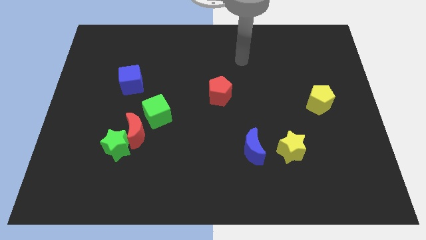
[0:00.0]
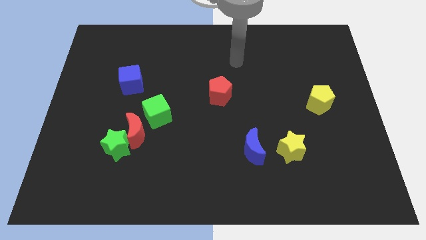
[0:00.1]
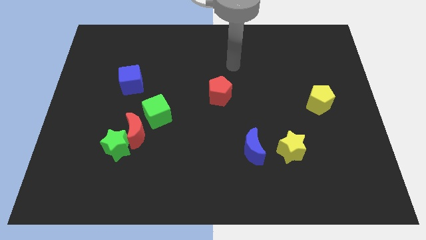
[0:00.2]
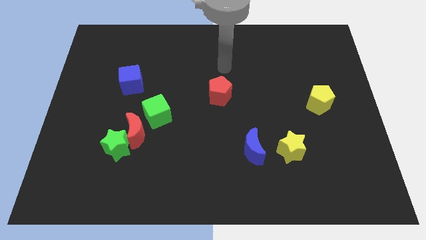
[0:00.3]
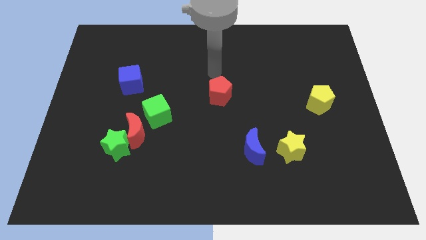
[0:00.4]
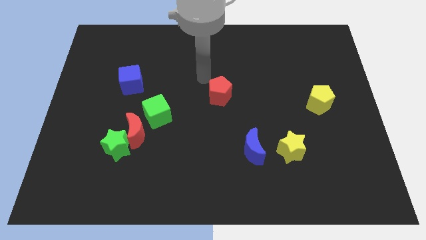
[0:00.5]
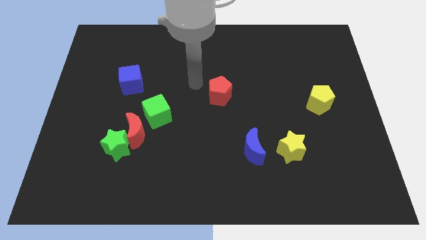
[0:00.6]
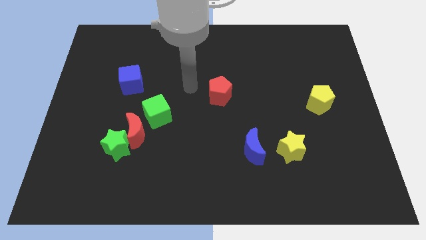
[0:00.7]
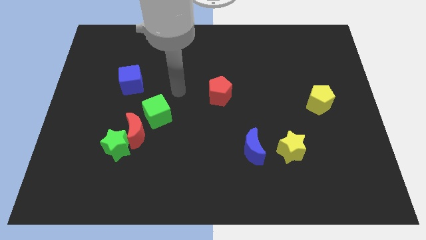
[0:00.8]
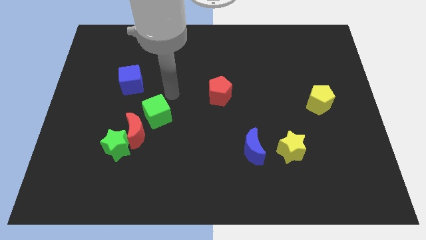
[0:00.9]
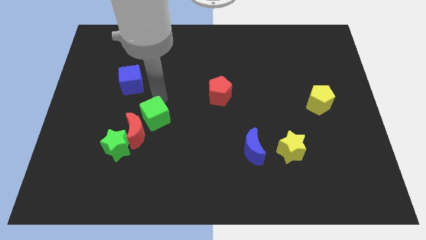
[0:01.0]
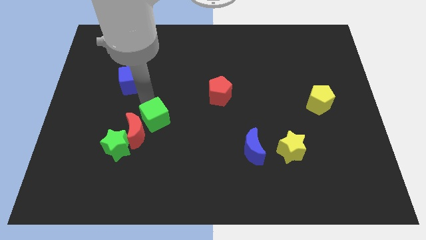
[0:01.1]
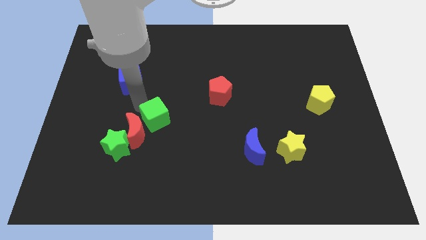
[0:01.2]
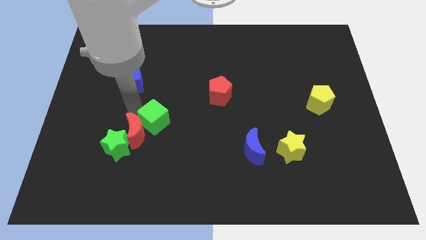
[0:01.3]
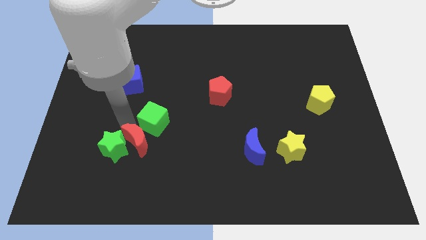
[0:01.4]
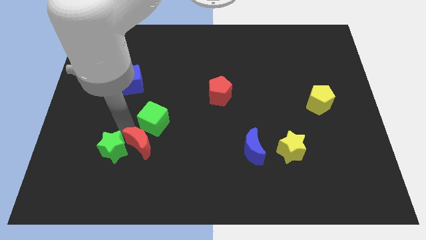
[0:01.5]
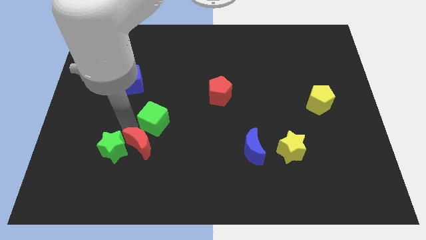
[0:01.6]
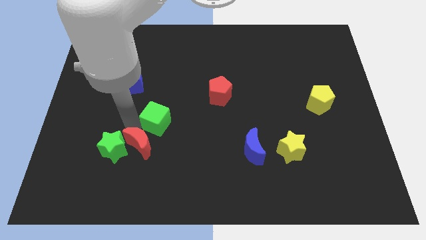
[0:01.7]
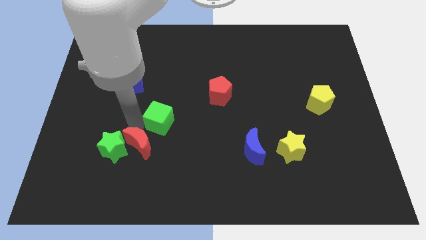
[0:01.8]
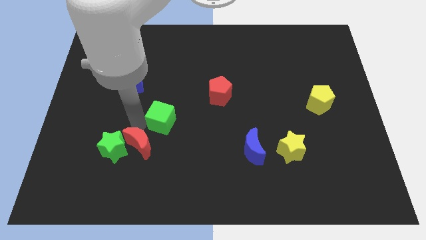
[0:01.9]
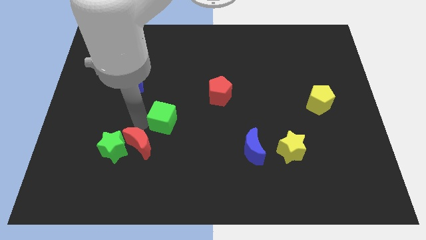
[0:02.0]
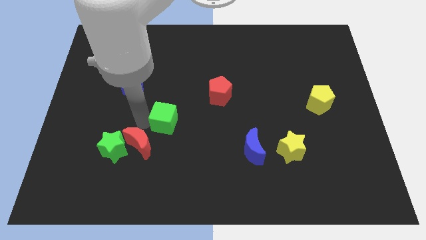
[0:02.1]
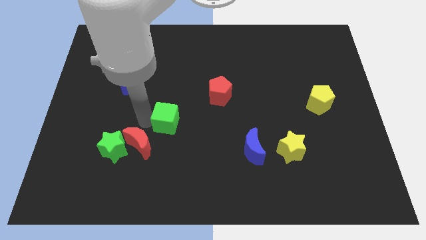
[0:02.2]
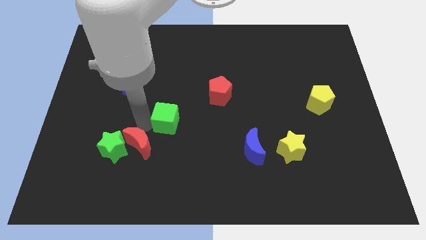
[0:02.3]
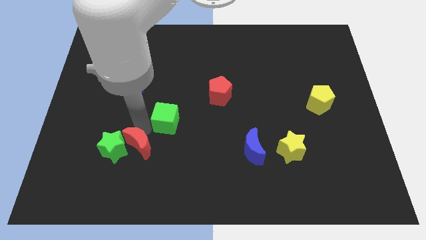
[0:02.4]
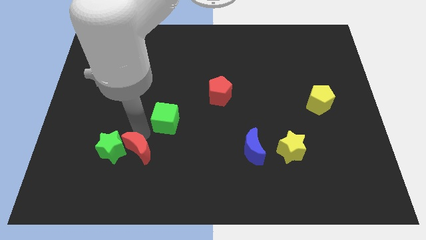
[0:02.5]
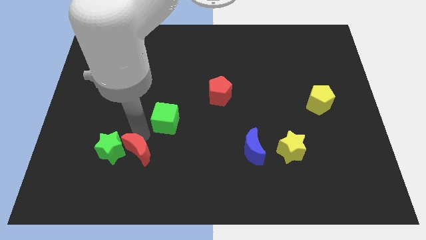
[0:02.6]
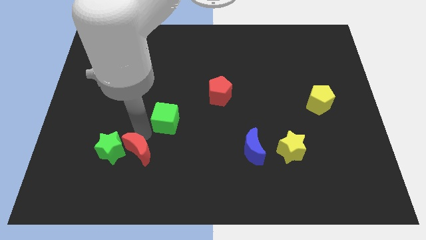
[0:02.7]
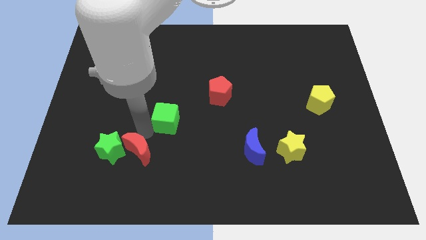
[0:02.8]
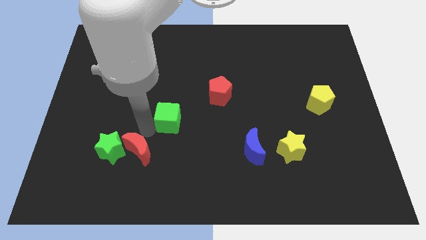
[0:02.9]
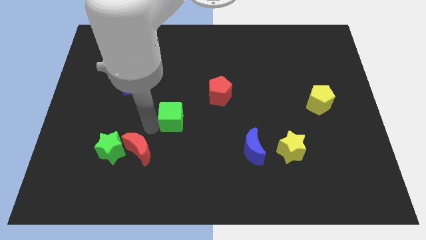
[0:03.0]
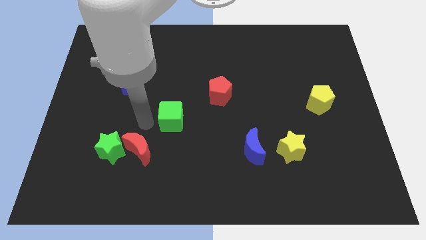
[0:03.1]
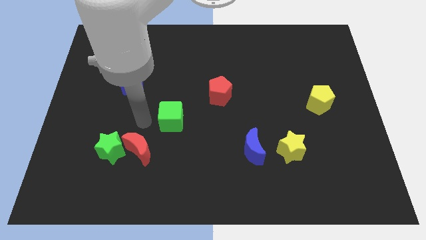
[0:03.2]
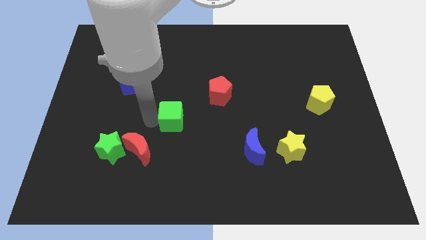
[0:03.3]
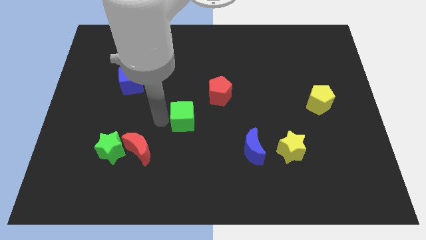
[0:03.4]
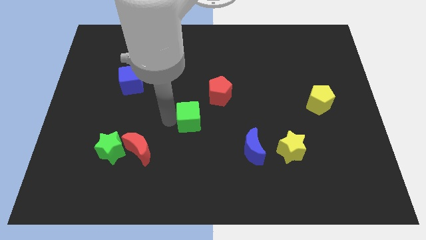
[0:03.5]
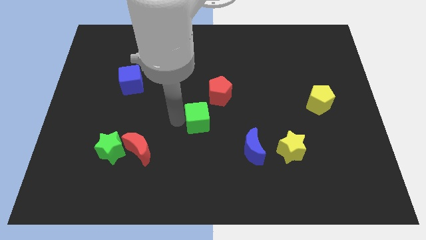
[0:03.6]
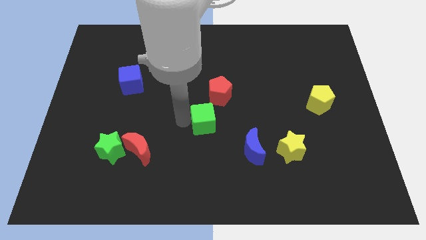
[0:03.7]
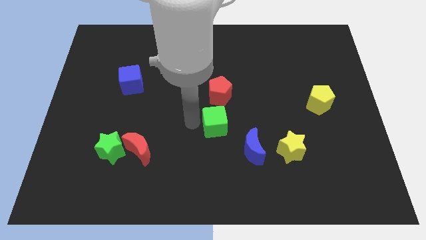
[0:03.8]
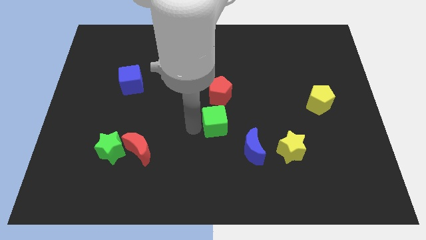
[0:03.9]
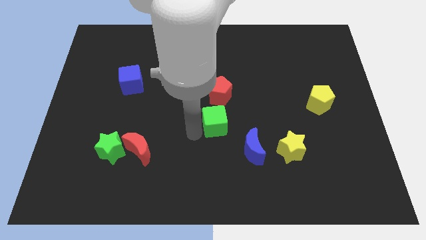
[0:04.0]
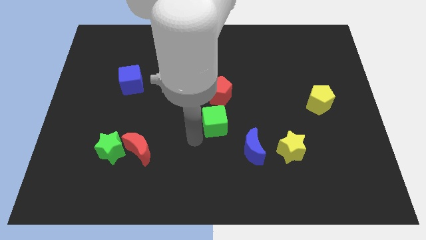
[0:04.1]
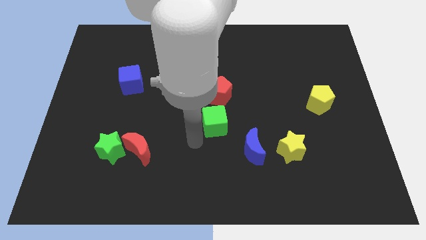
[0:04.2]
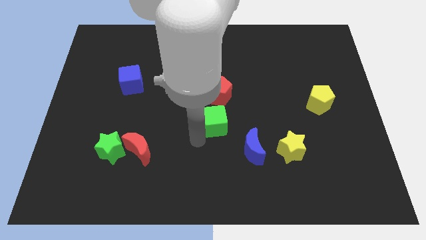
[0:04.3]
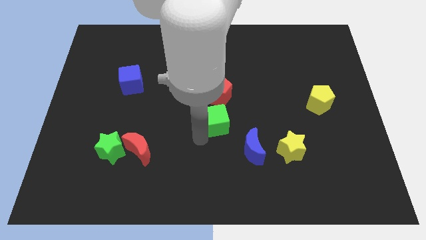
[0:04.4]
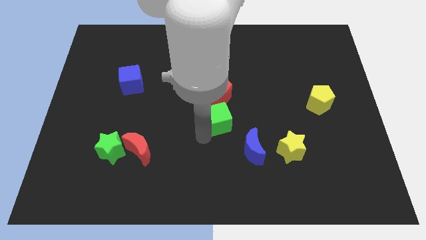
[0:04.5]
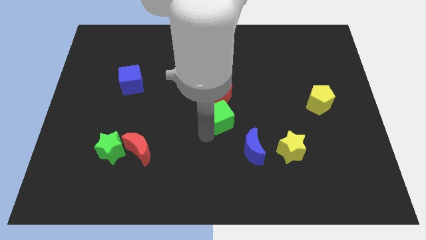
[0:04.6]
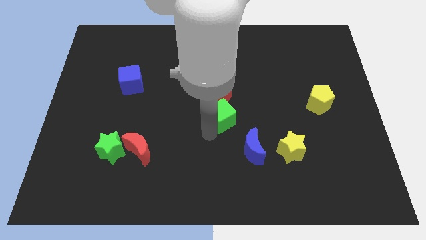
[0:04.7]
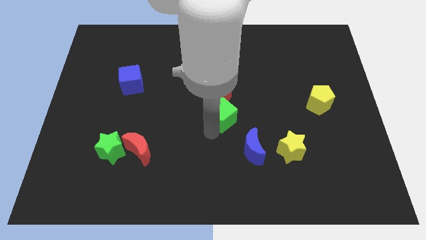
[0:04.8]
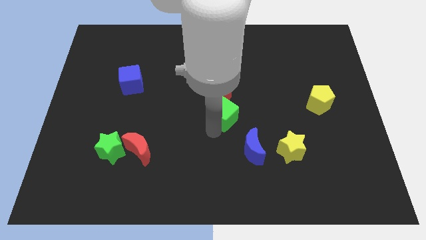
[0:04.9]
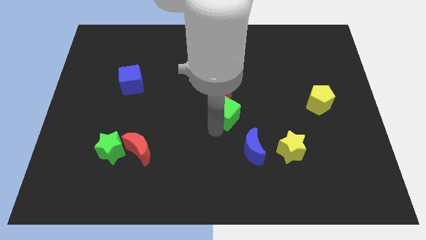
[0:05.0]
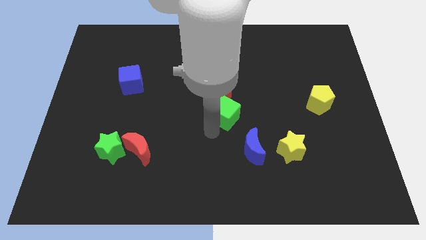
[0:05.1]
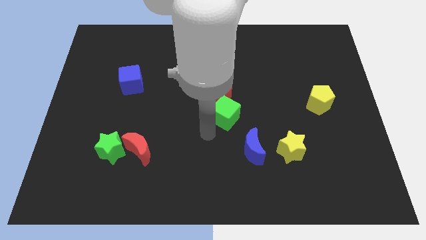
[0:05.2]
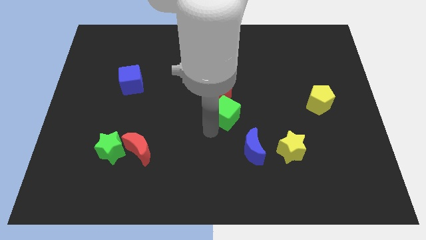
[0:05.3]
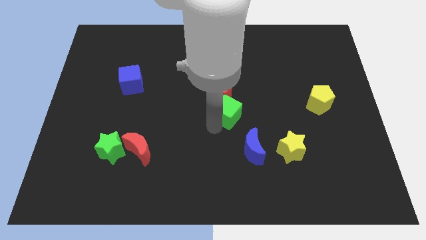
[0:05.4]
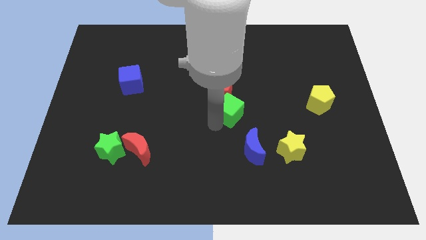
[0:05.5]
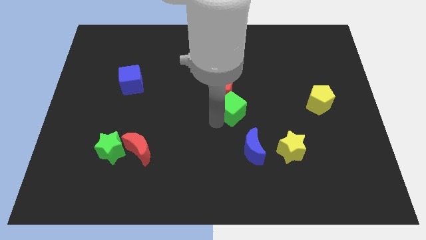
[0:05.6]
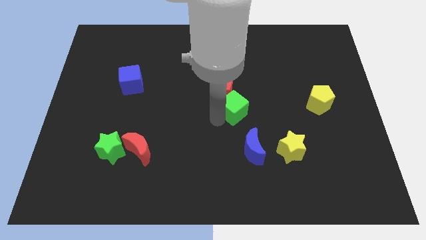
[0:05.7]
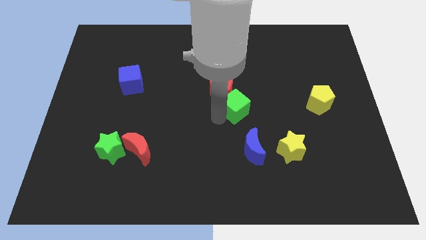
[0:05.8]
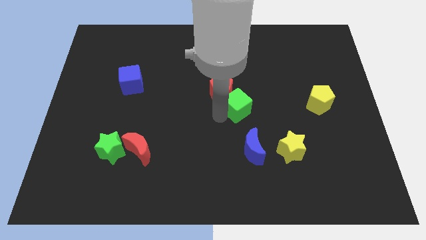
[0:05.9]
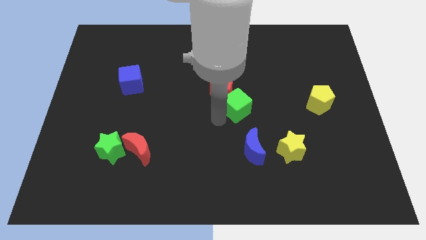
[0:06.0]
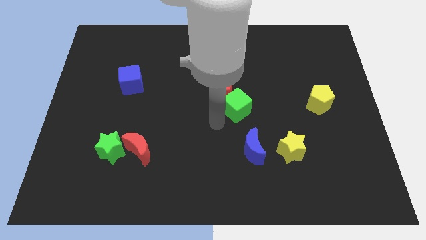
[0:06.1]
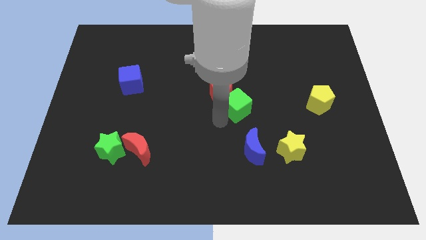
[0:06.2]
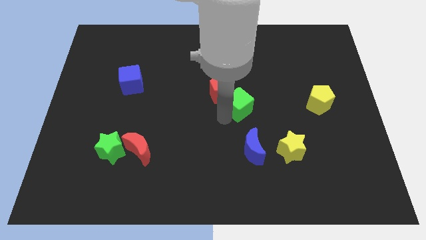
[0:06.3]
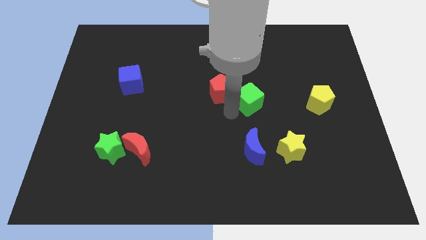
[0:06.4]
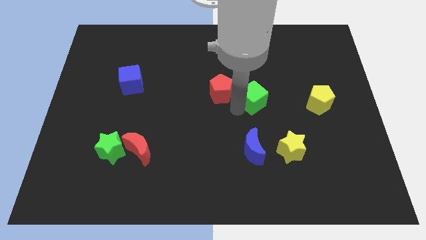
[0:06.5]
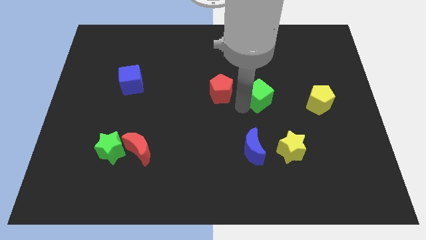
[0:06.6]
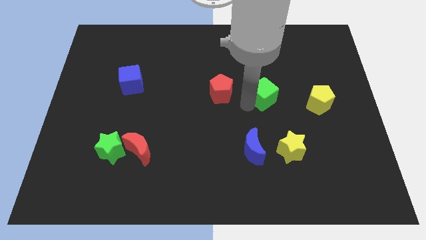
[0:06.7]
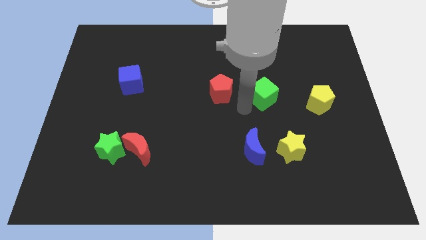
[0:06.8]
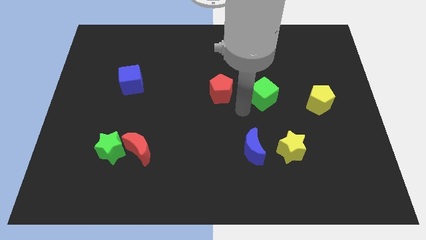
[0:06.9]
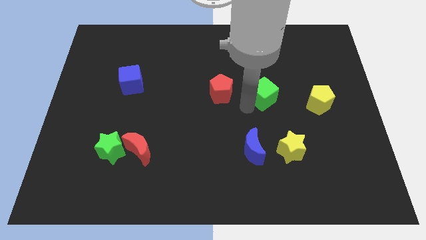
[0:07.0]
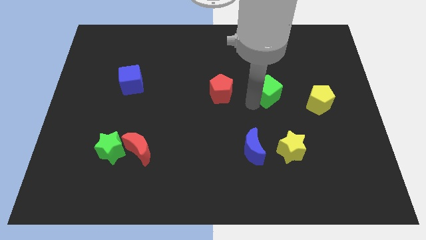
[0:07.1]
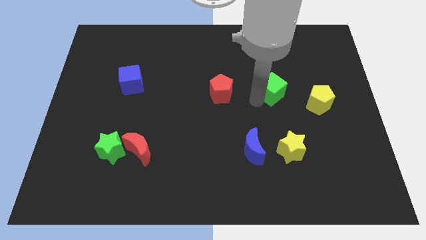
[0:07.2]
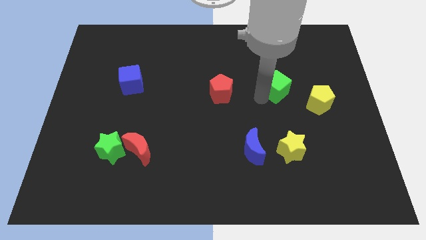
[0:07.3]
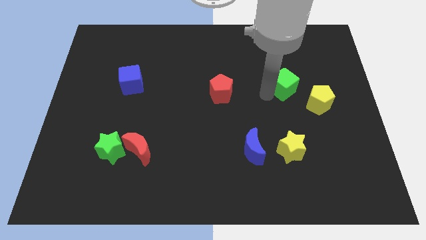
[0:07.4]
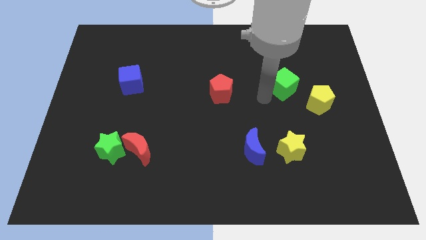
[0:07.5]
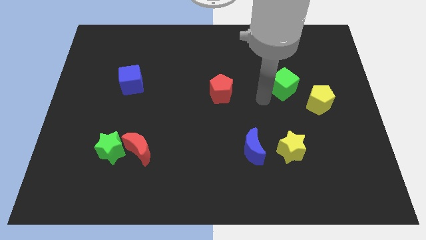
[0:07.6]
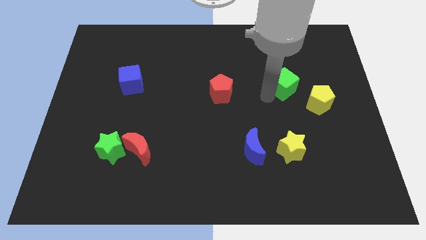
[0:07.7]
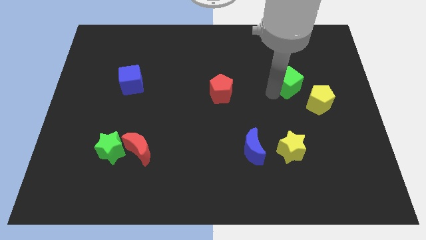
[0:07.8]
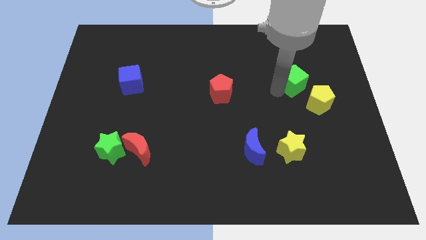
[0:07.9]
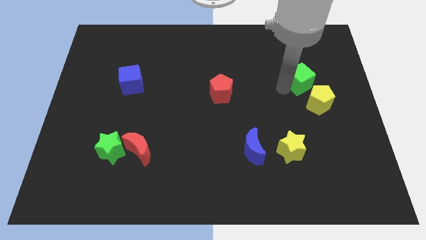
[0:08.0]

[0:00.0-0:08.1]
move the green cube above the yellow pentagon
